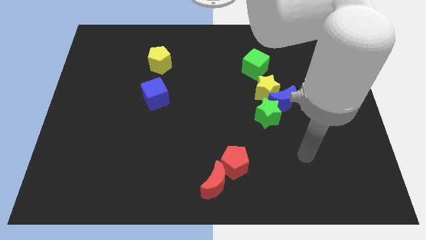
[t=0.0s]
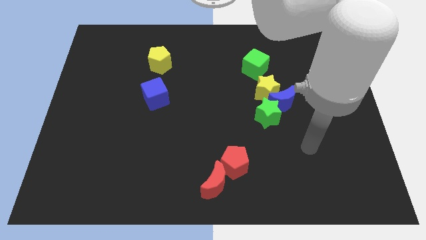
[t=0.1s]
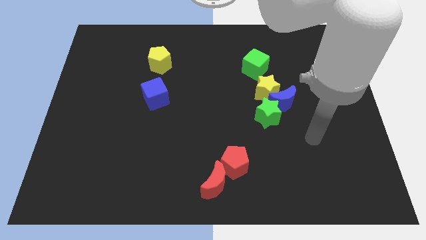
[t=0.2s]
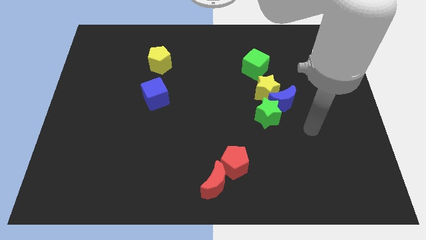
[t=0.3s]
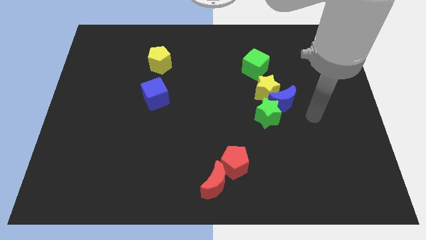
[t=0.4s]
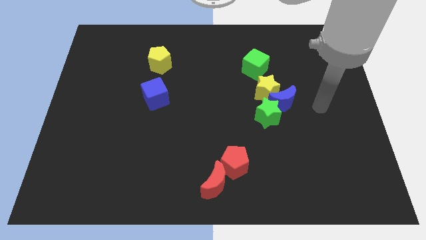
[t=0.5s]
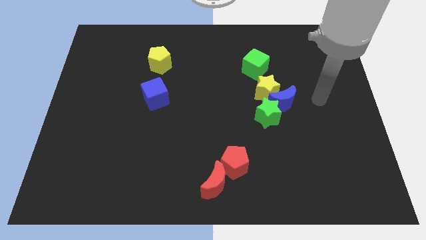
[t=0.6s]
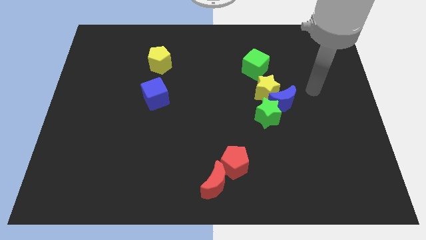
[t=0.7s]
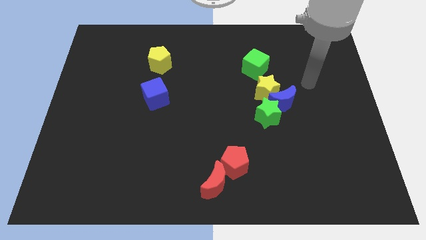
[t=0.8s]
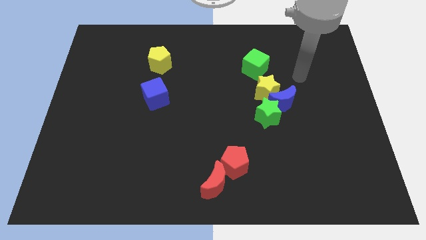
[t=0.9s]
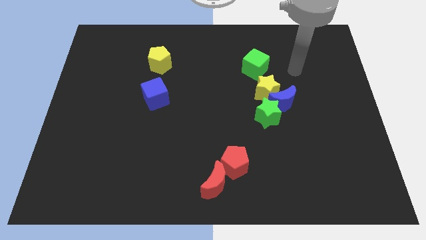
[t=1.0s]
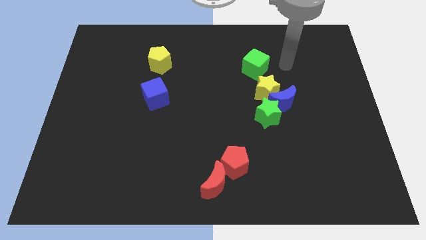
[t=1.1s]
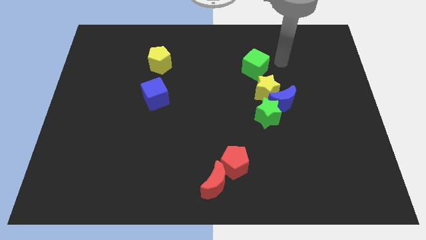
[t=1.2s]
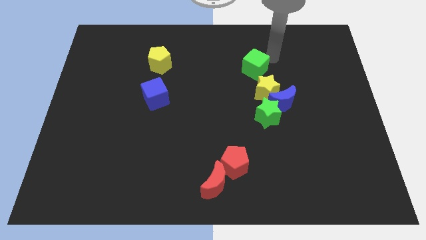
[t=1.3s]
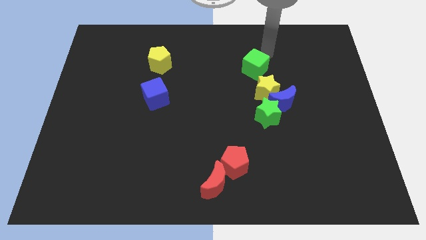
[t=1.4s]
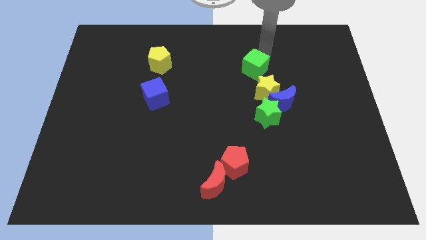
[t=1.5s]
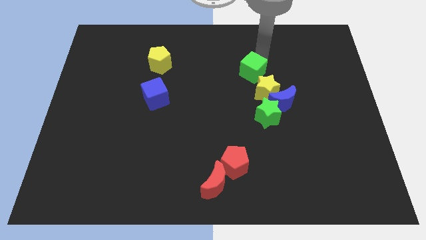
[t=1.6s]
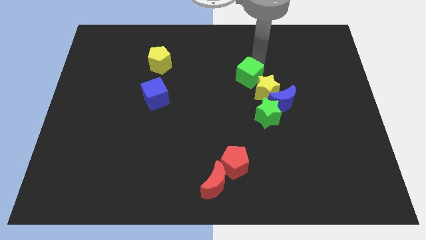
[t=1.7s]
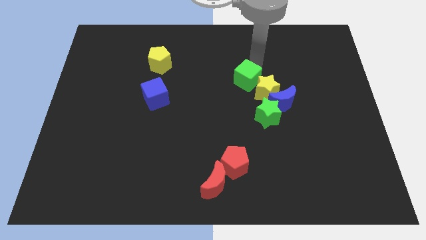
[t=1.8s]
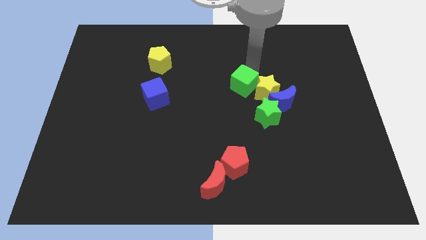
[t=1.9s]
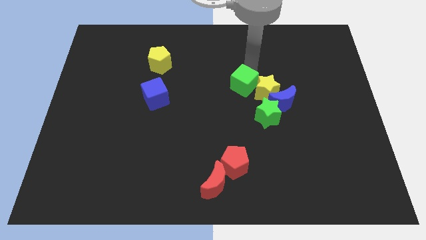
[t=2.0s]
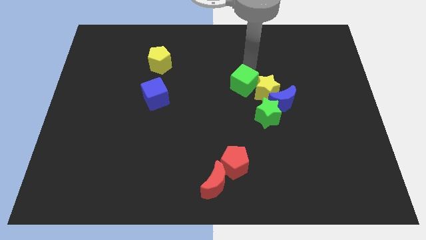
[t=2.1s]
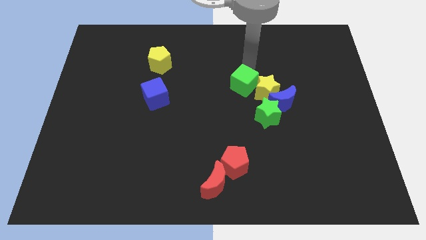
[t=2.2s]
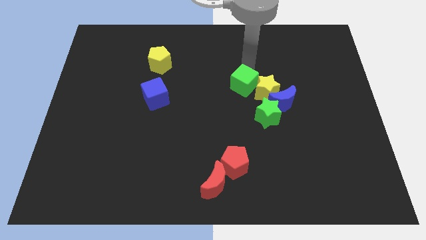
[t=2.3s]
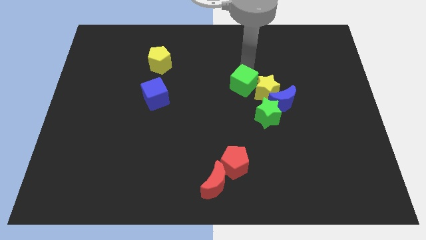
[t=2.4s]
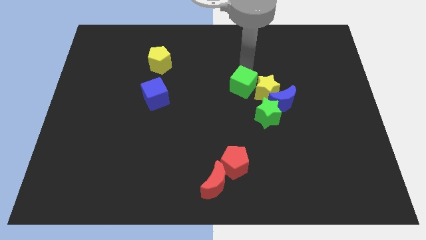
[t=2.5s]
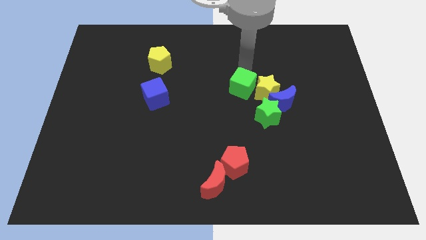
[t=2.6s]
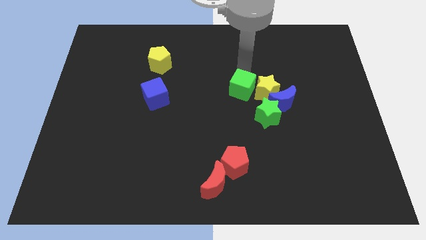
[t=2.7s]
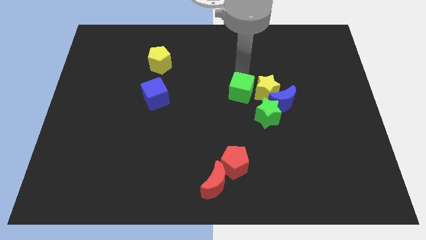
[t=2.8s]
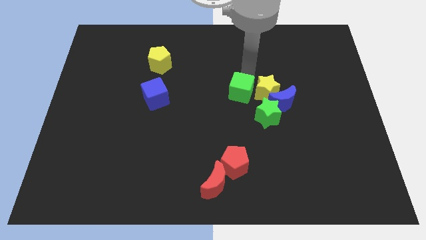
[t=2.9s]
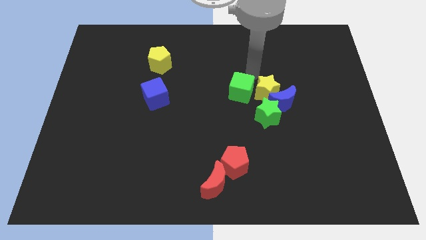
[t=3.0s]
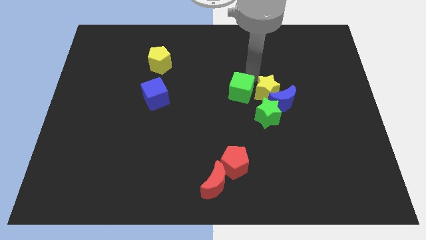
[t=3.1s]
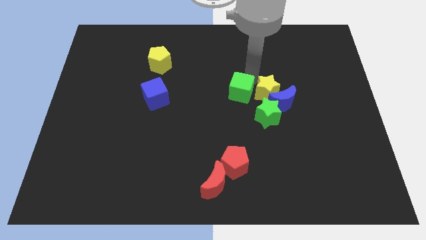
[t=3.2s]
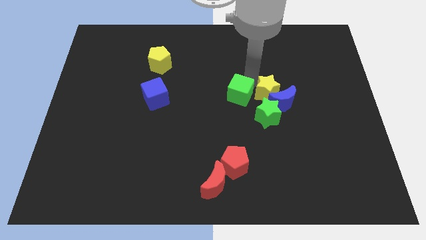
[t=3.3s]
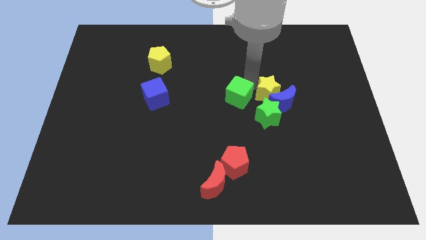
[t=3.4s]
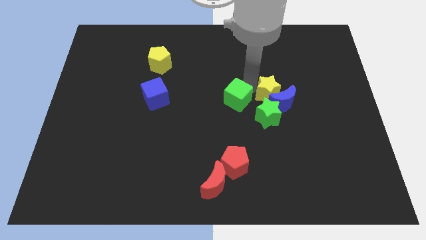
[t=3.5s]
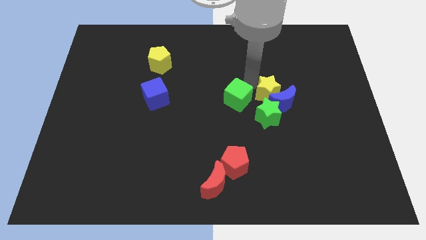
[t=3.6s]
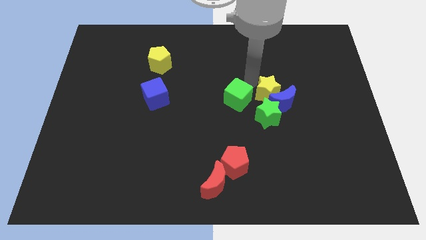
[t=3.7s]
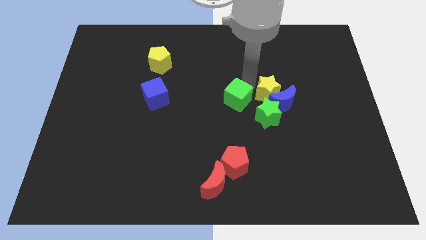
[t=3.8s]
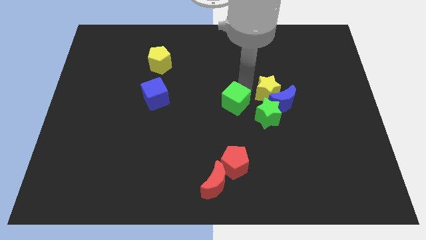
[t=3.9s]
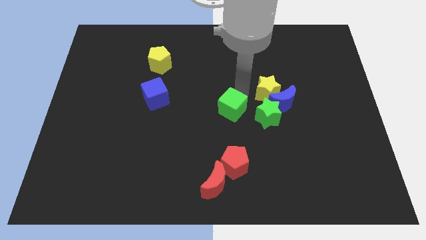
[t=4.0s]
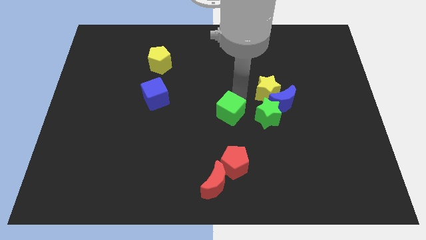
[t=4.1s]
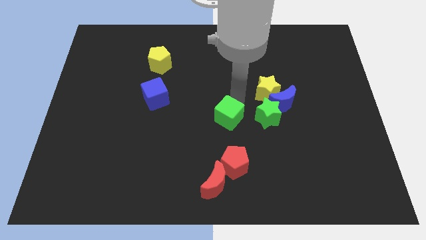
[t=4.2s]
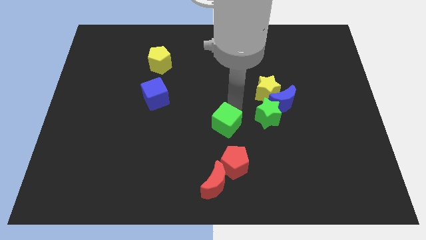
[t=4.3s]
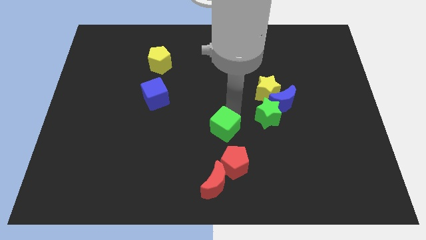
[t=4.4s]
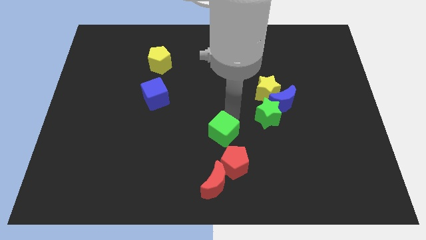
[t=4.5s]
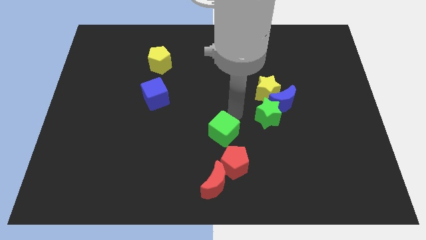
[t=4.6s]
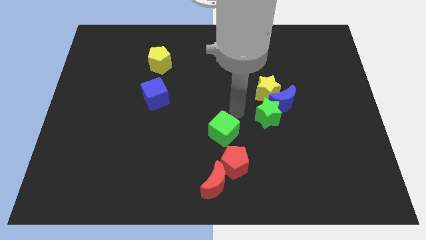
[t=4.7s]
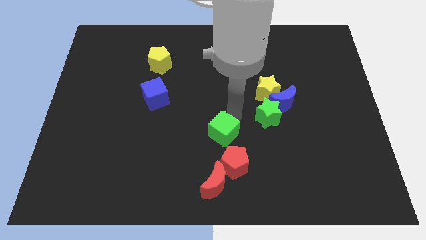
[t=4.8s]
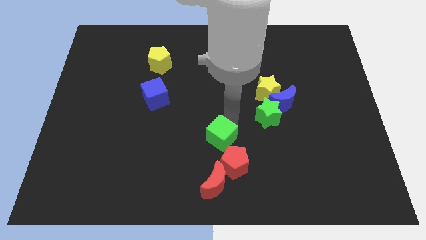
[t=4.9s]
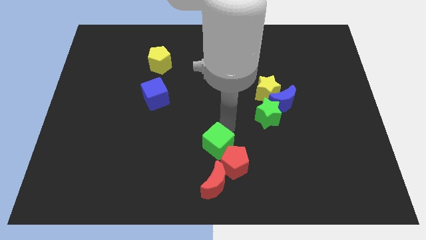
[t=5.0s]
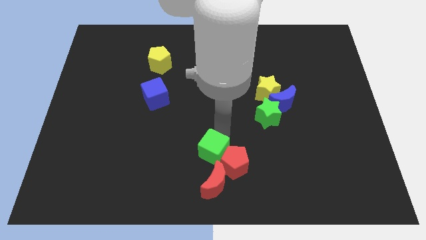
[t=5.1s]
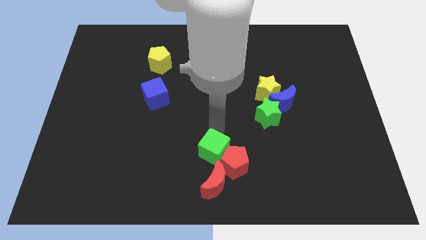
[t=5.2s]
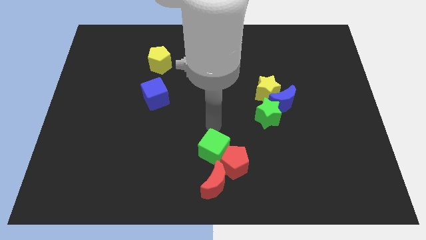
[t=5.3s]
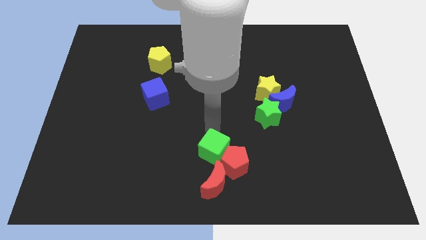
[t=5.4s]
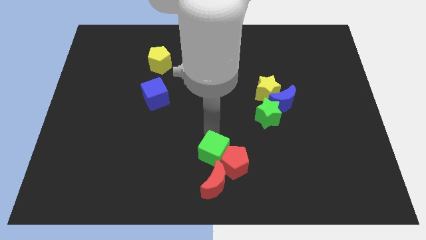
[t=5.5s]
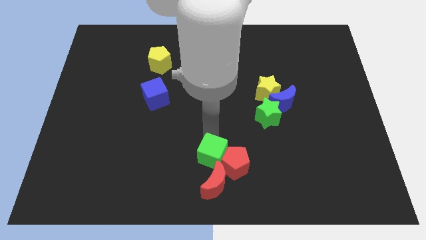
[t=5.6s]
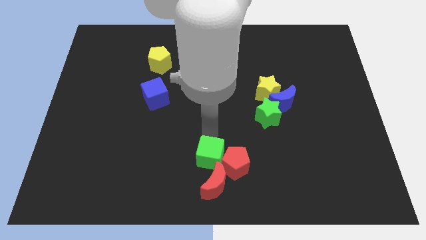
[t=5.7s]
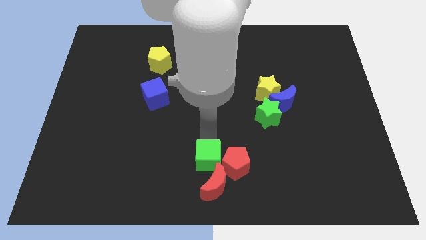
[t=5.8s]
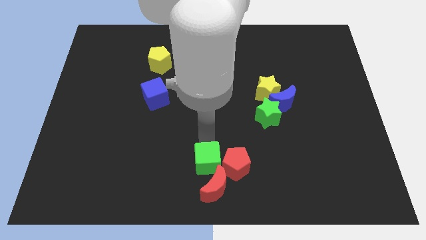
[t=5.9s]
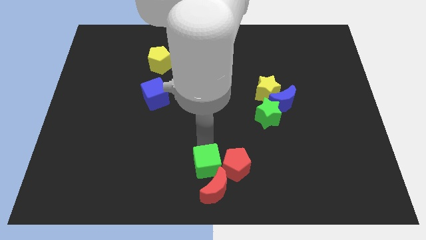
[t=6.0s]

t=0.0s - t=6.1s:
slide the green cube next to the red moon

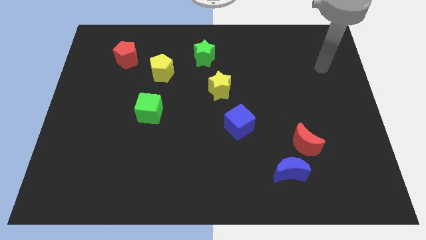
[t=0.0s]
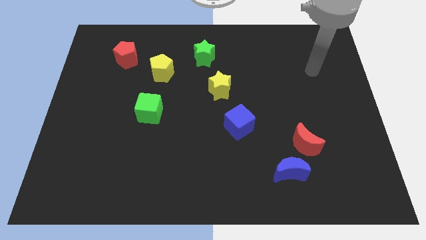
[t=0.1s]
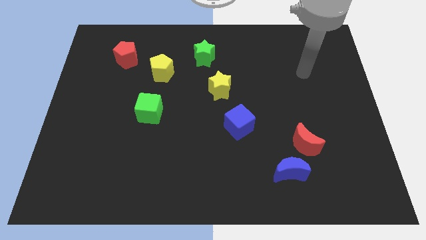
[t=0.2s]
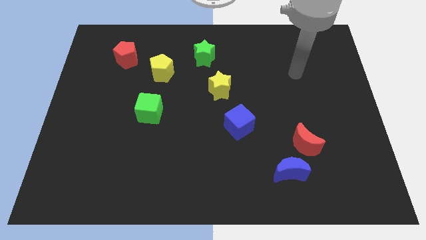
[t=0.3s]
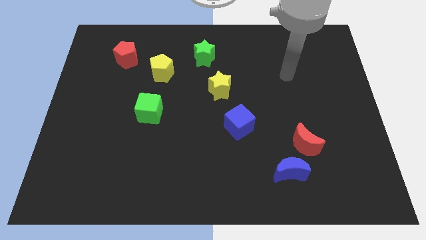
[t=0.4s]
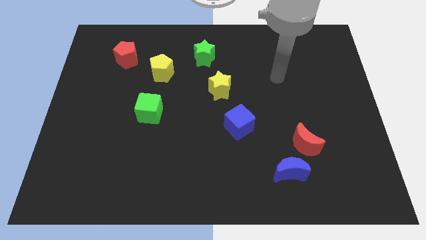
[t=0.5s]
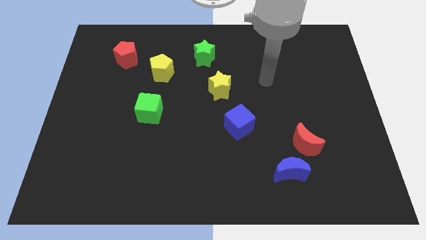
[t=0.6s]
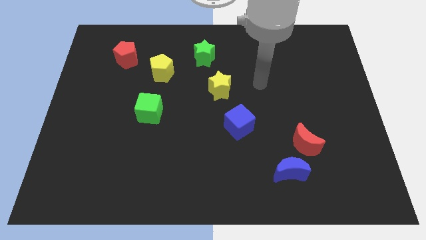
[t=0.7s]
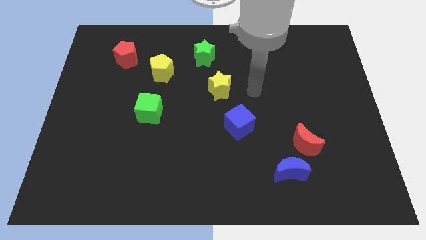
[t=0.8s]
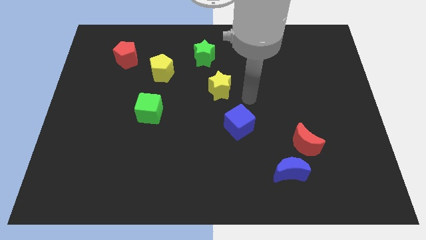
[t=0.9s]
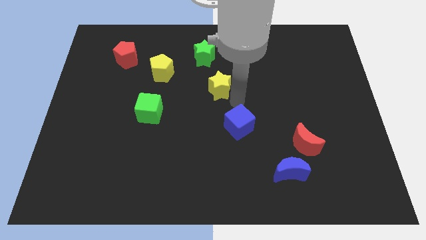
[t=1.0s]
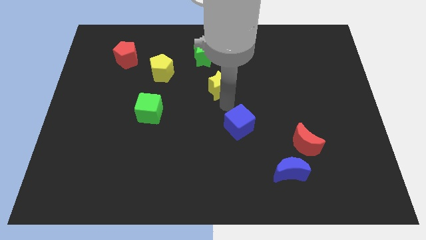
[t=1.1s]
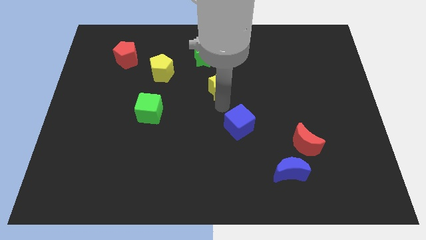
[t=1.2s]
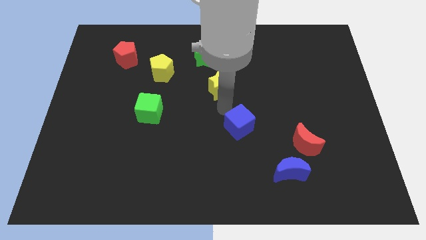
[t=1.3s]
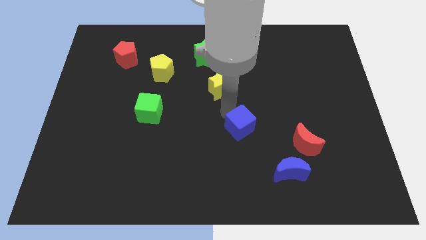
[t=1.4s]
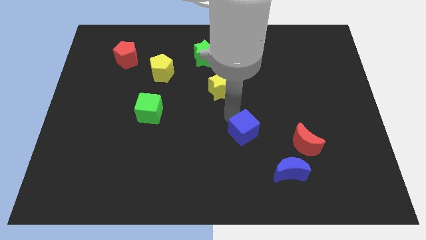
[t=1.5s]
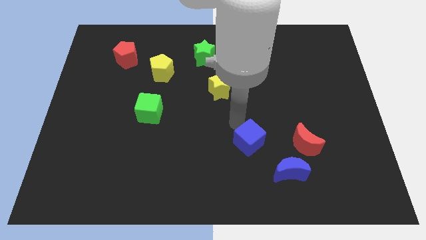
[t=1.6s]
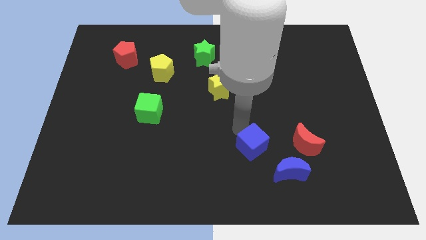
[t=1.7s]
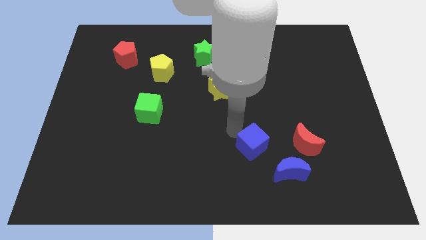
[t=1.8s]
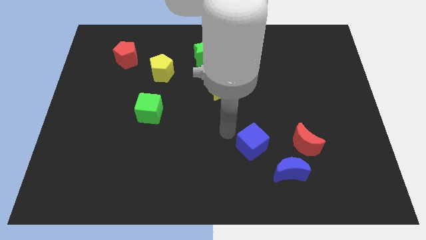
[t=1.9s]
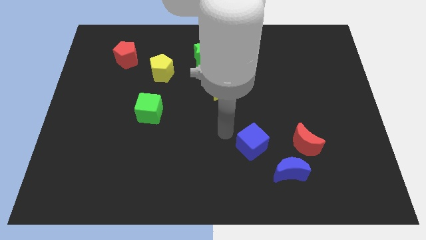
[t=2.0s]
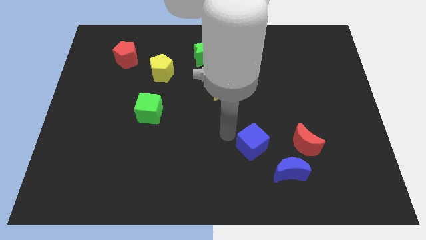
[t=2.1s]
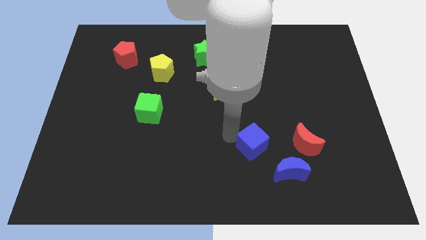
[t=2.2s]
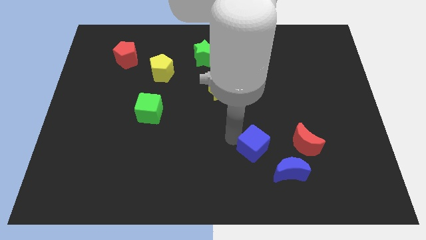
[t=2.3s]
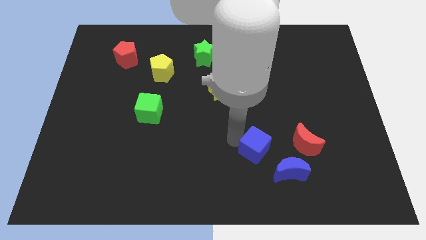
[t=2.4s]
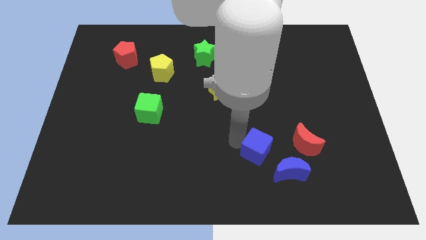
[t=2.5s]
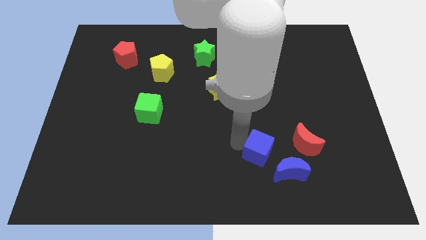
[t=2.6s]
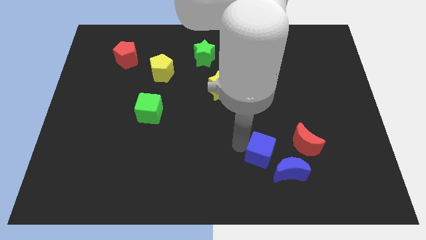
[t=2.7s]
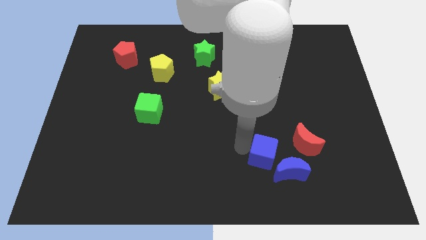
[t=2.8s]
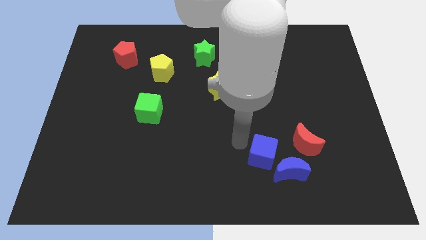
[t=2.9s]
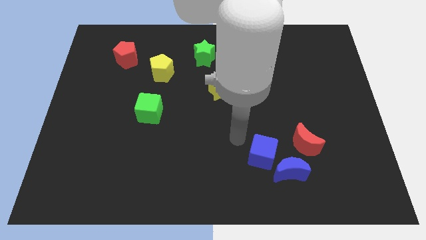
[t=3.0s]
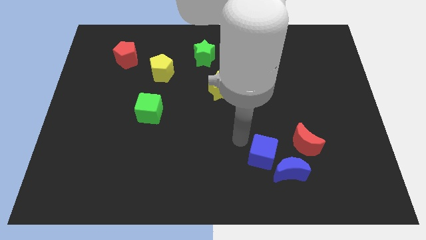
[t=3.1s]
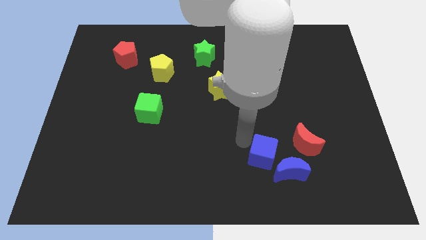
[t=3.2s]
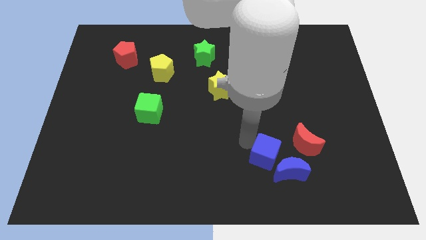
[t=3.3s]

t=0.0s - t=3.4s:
push the blue cube next to the blue moon
